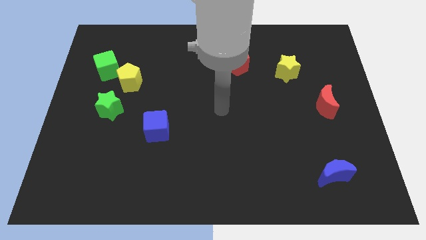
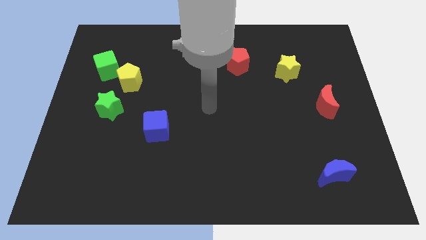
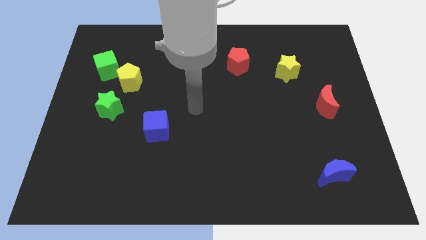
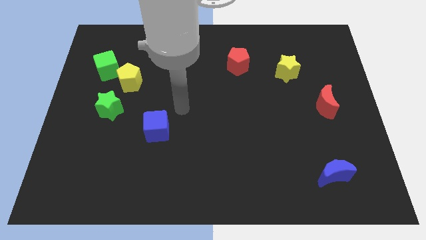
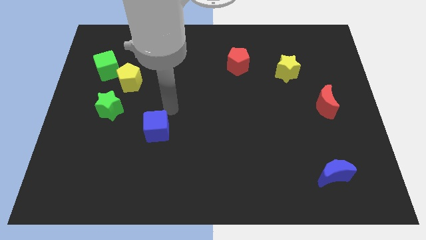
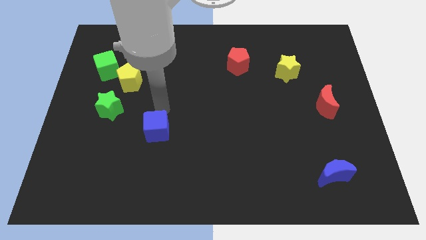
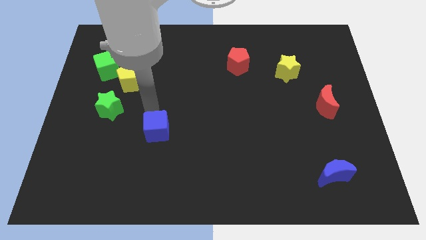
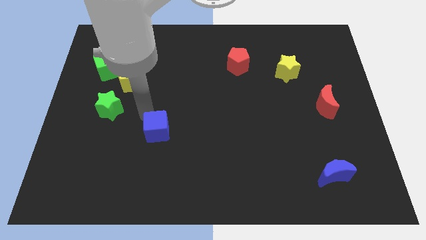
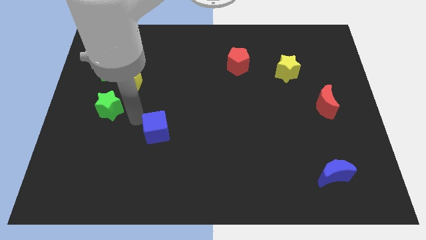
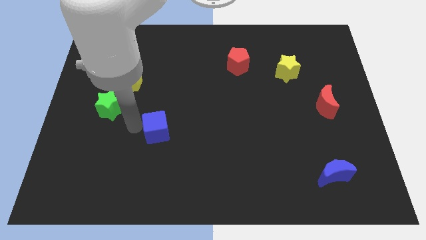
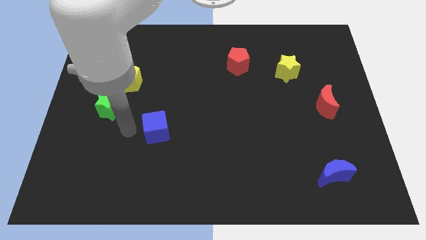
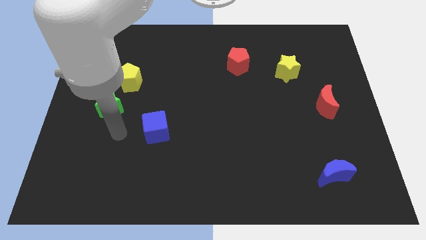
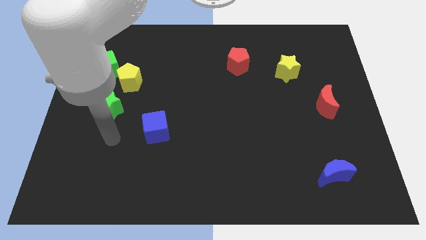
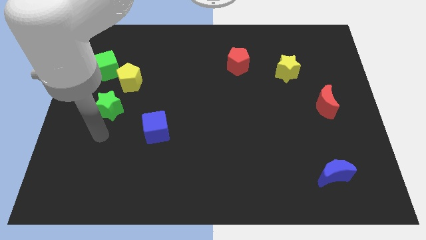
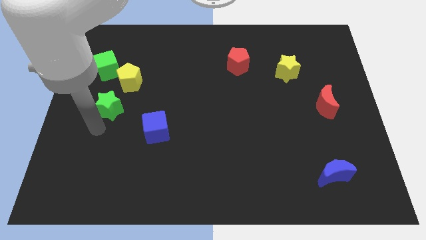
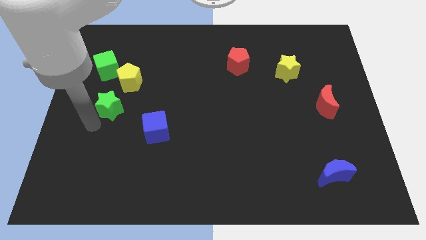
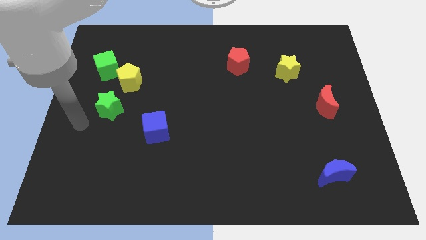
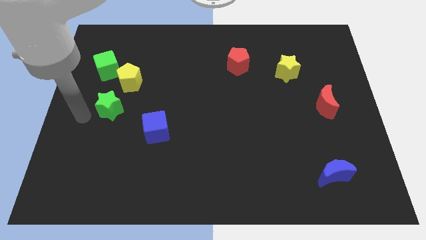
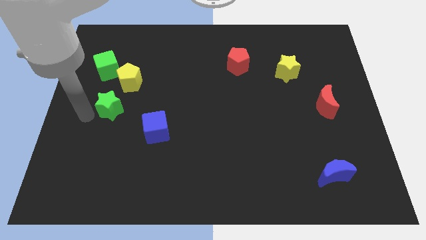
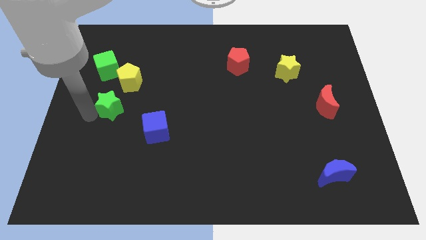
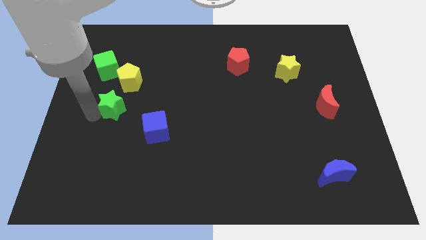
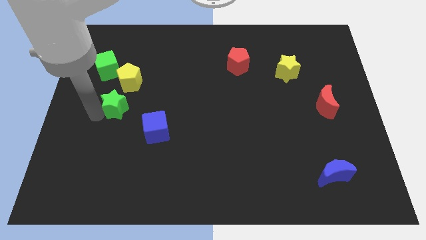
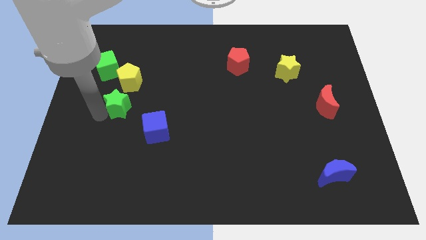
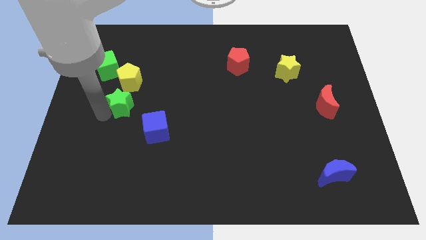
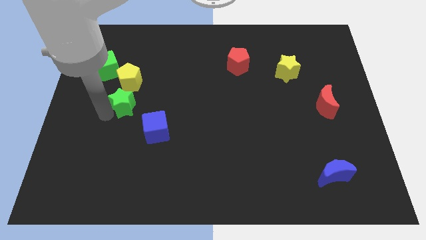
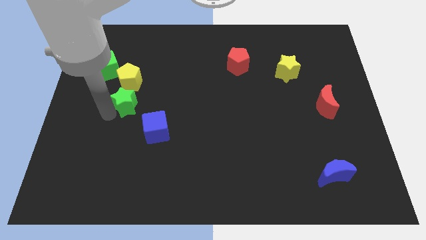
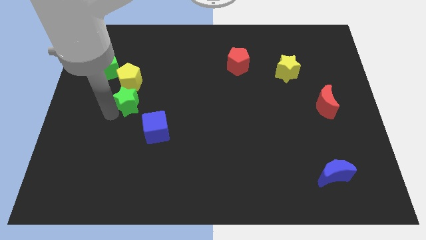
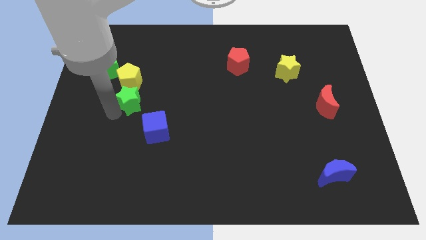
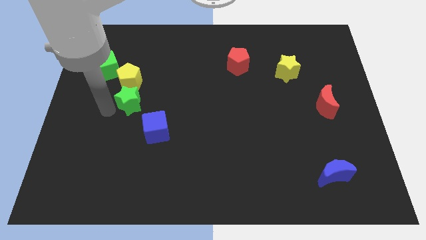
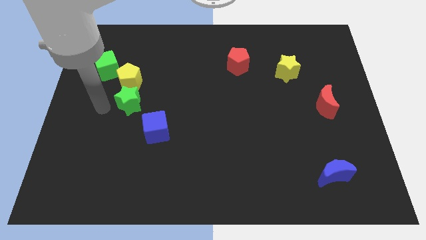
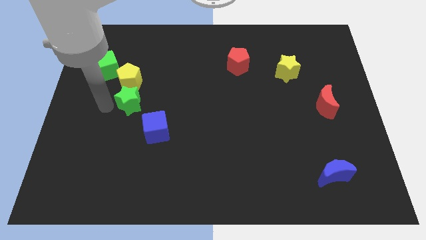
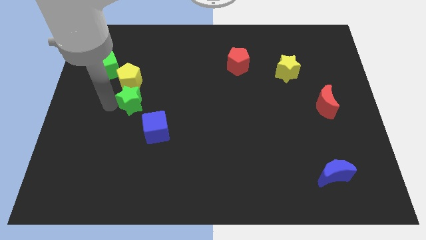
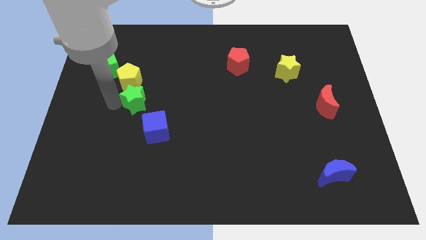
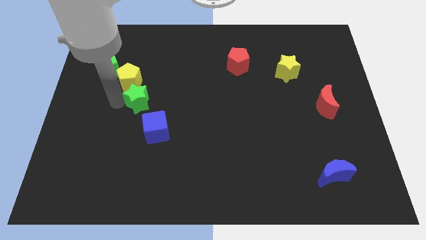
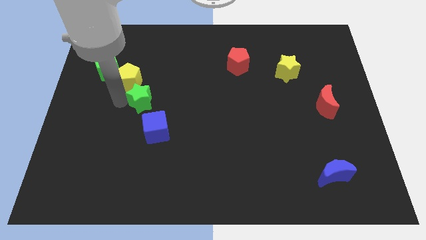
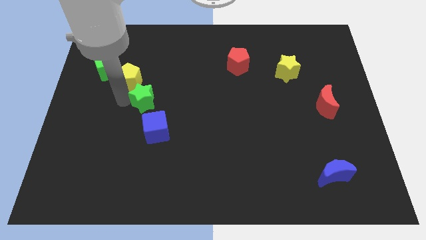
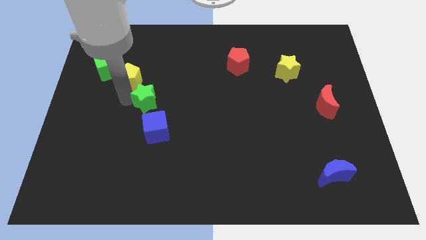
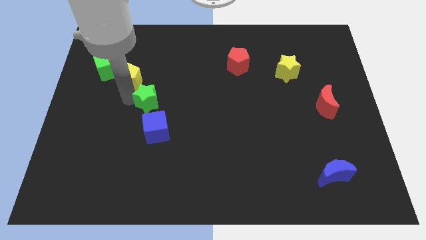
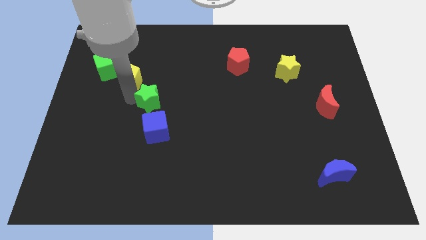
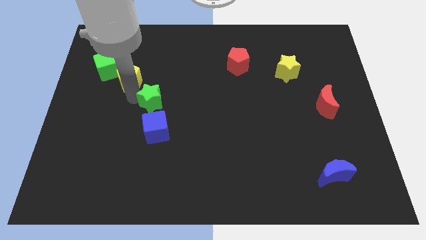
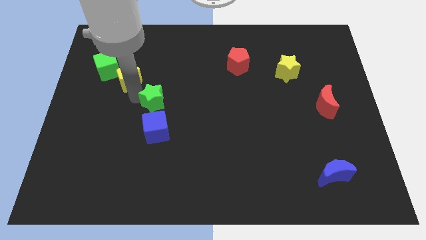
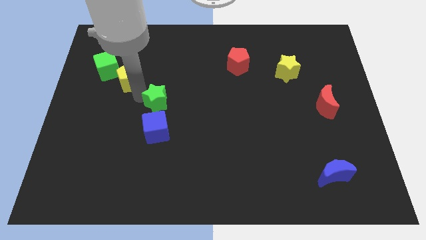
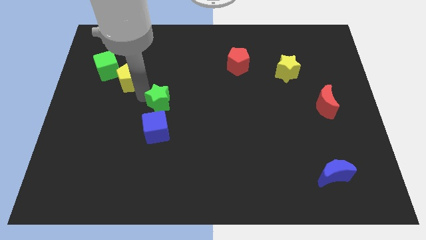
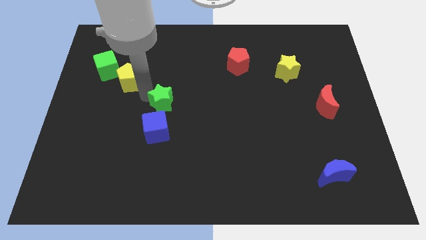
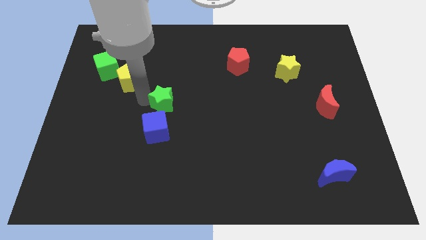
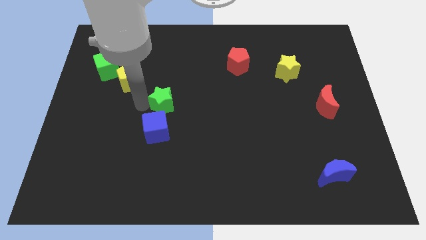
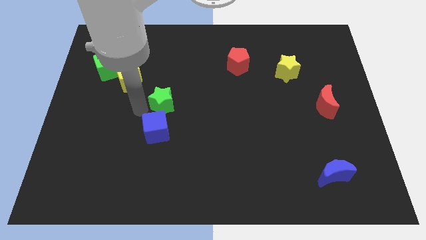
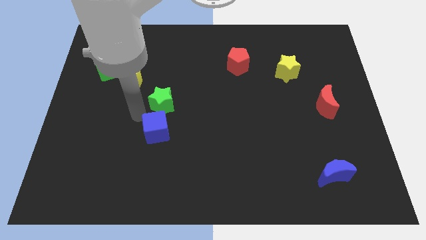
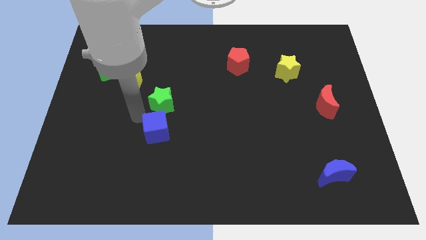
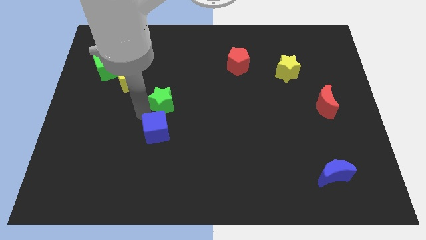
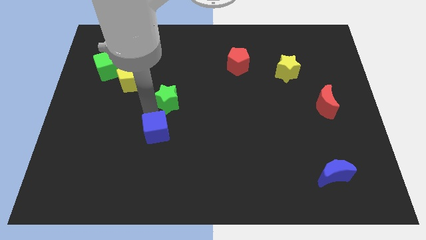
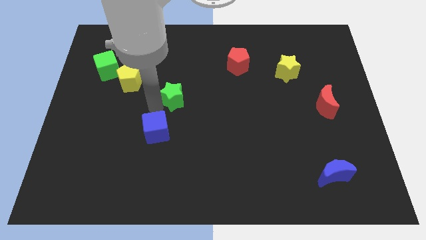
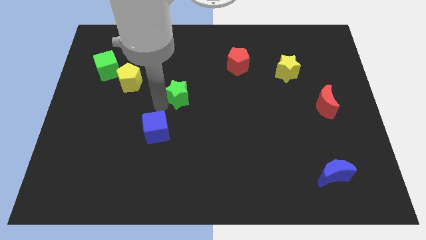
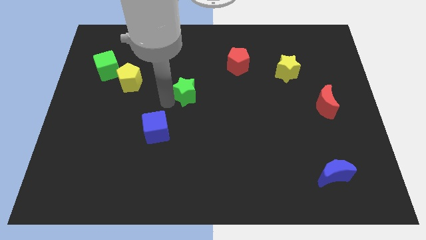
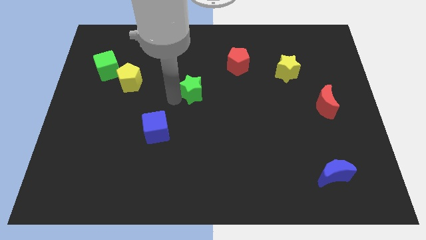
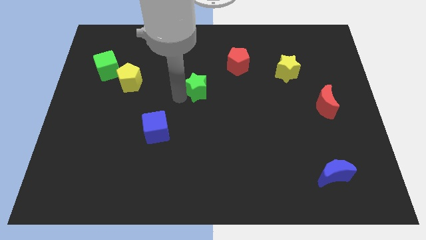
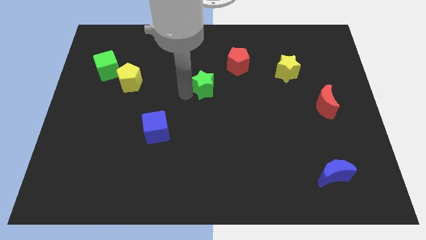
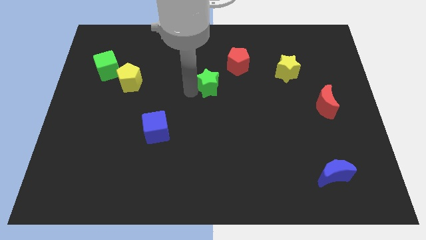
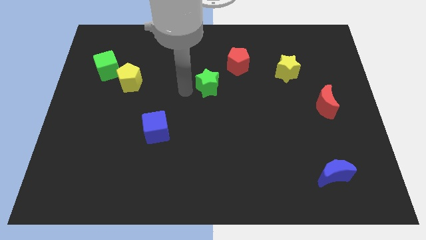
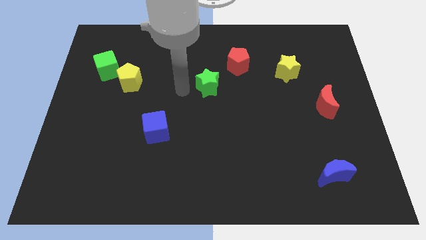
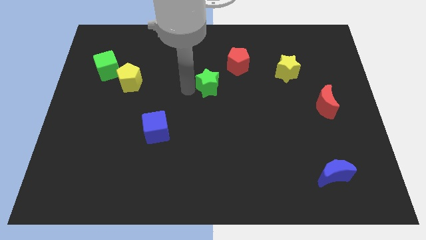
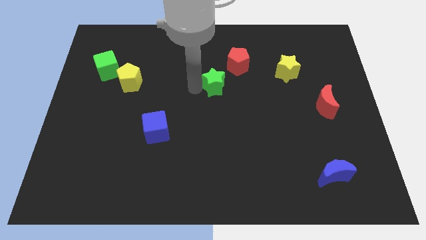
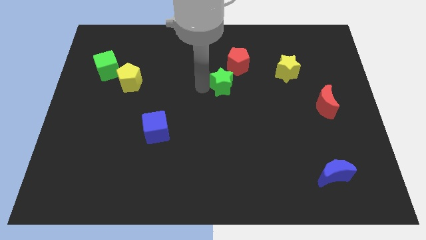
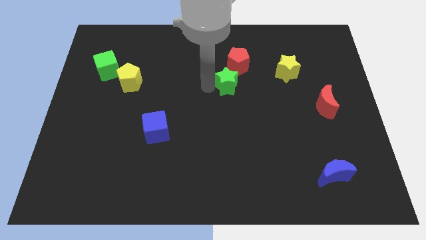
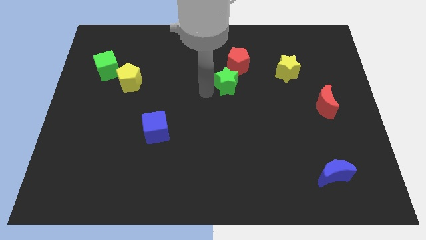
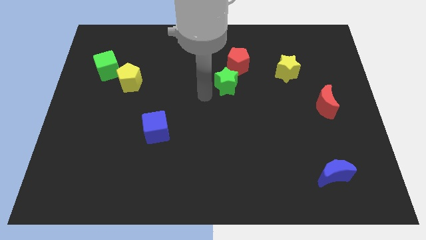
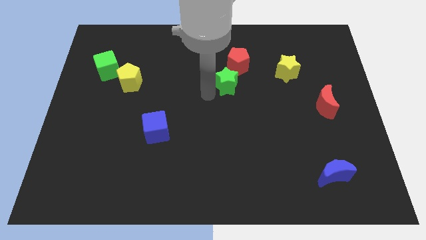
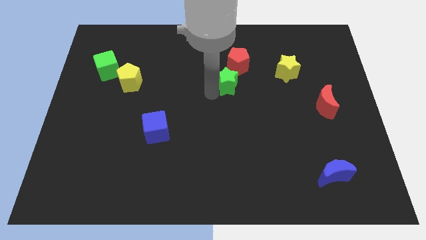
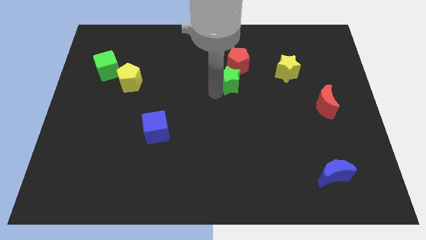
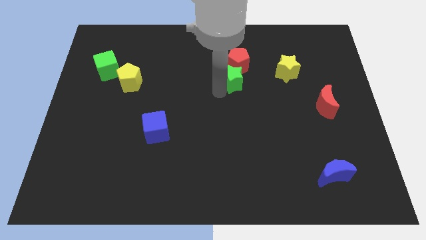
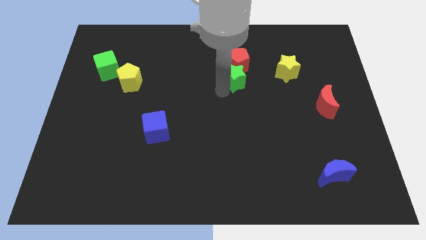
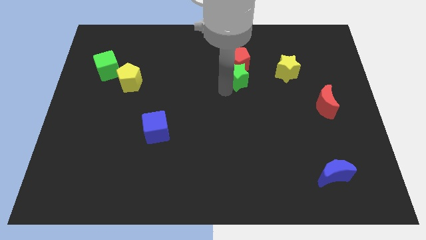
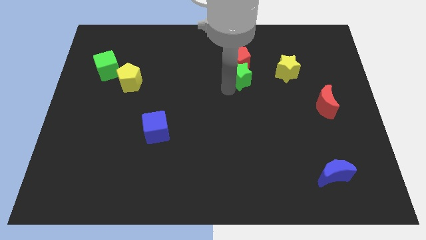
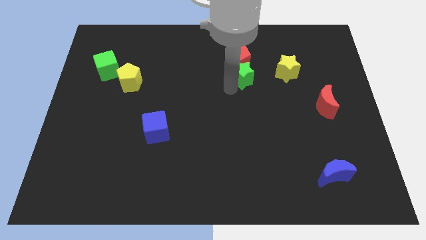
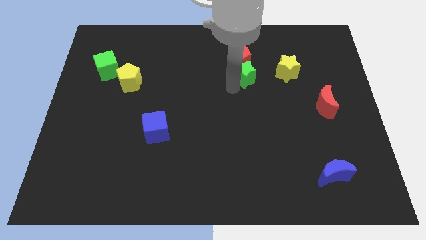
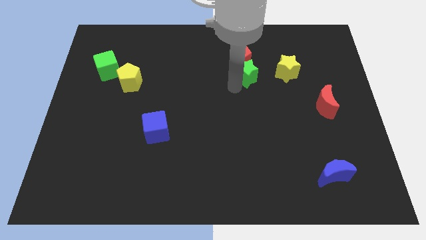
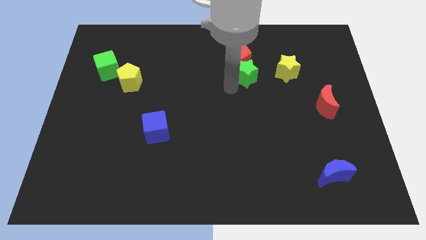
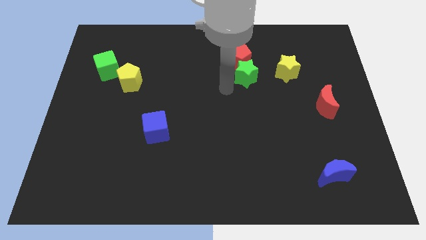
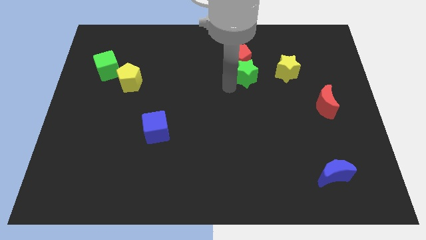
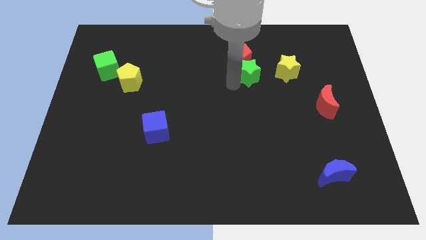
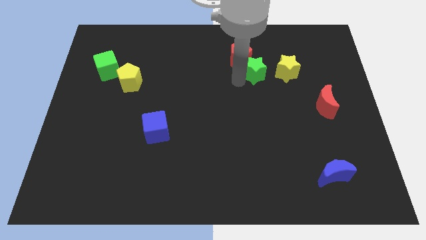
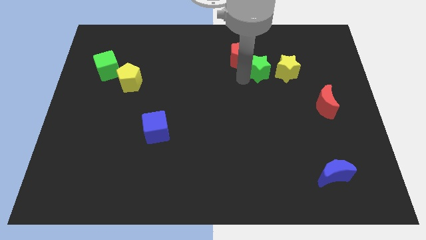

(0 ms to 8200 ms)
push the green star to the right of the red pentagon
